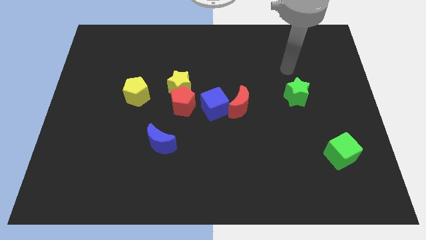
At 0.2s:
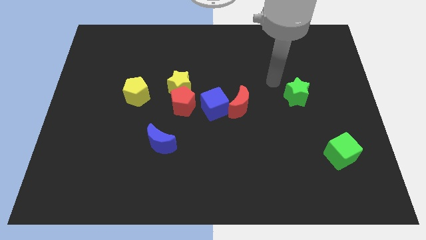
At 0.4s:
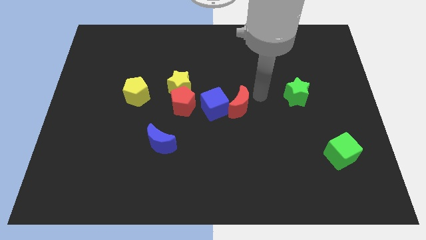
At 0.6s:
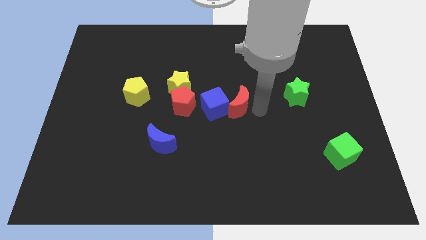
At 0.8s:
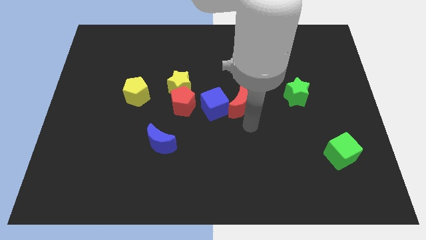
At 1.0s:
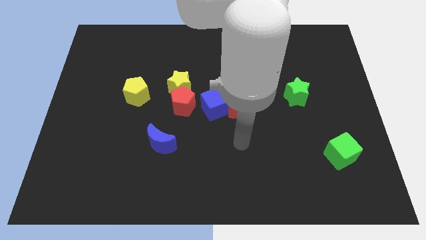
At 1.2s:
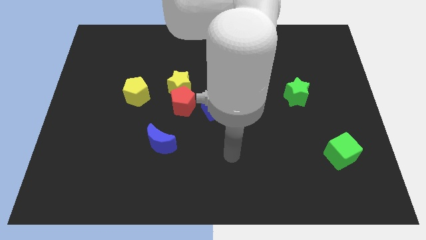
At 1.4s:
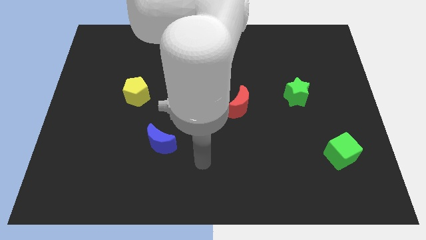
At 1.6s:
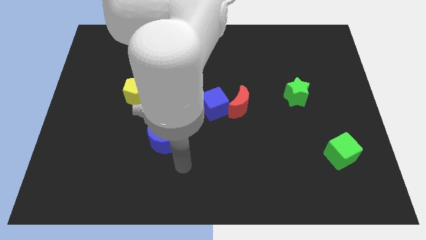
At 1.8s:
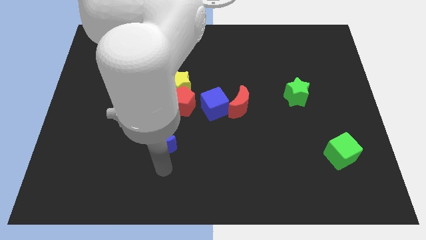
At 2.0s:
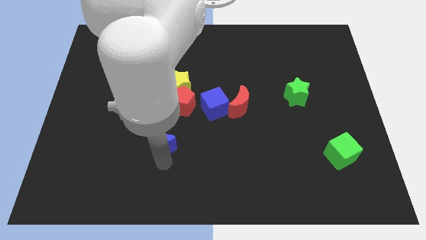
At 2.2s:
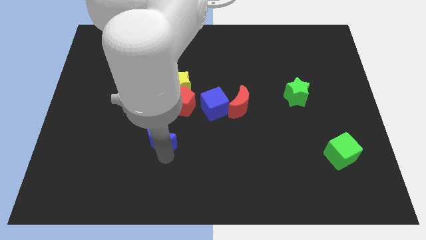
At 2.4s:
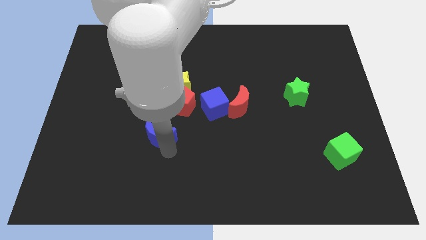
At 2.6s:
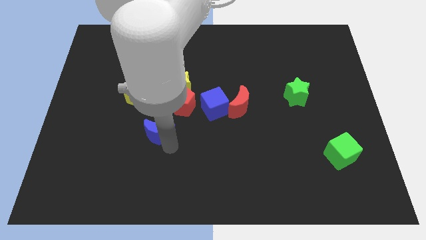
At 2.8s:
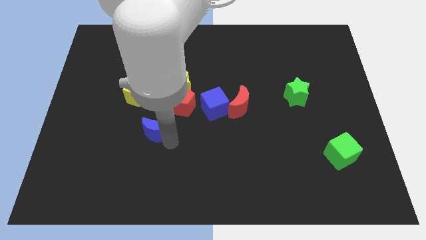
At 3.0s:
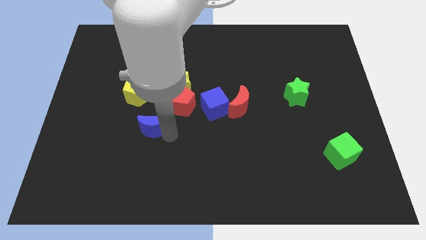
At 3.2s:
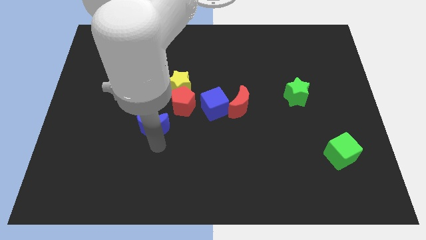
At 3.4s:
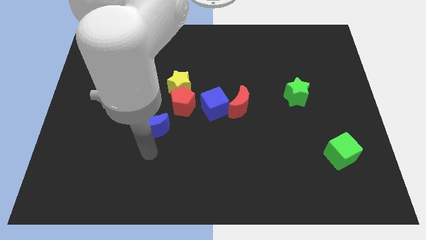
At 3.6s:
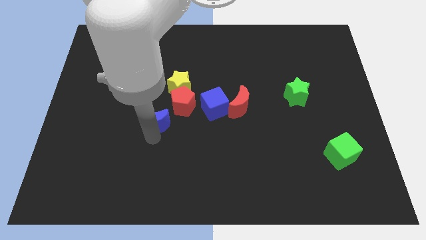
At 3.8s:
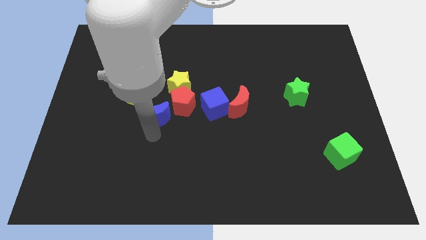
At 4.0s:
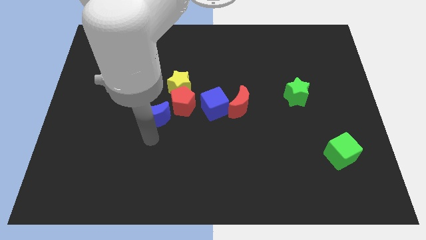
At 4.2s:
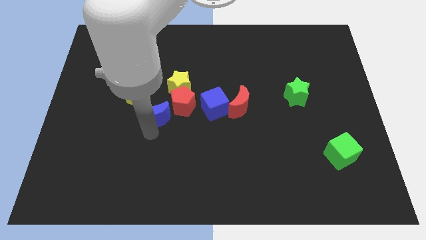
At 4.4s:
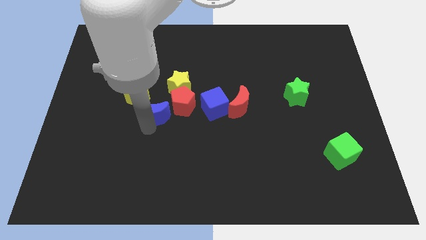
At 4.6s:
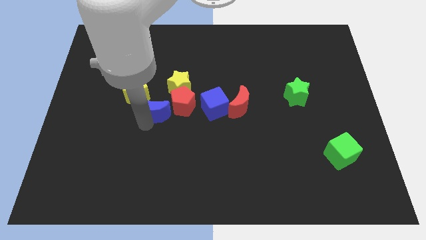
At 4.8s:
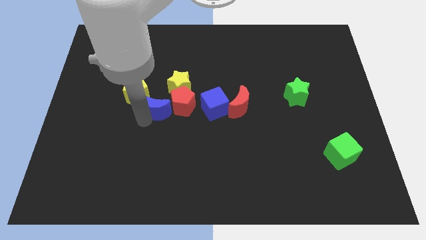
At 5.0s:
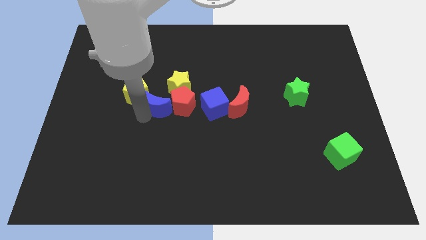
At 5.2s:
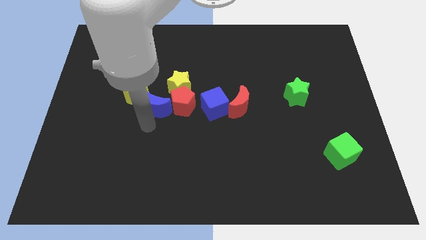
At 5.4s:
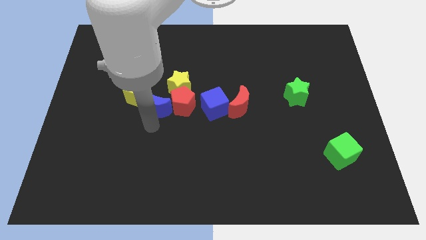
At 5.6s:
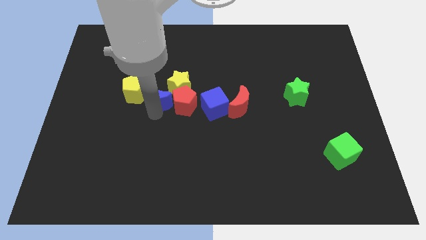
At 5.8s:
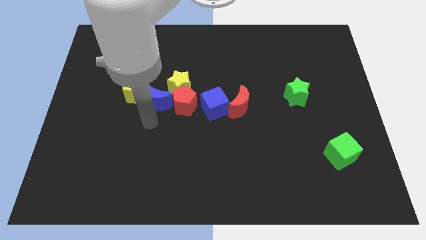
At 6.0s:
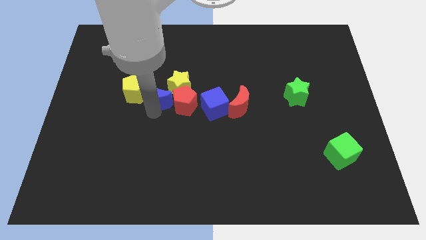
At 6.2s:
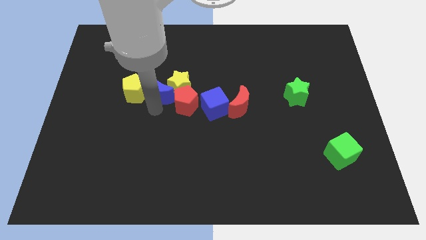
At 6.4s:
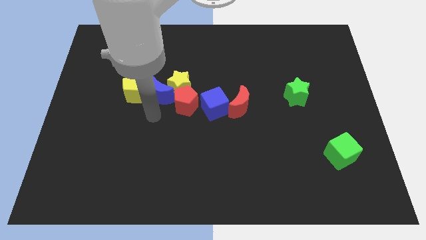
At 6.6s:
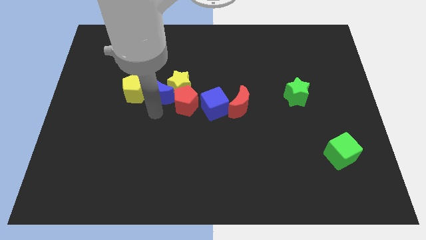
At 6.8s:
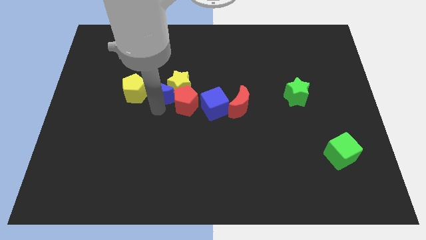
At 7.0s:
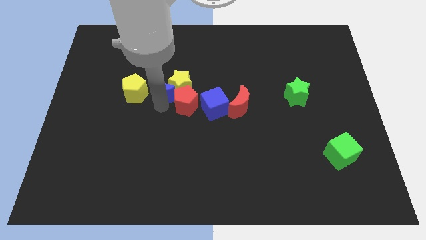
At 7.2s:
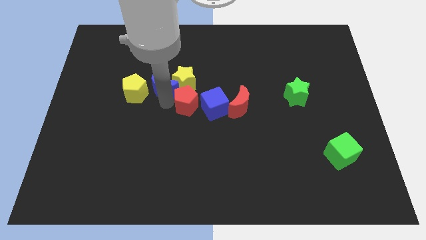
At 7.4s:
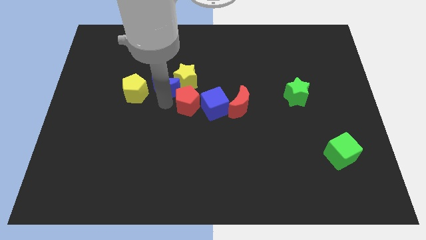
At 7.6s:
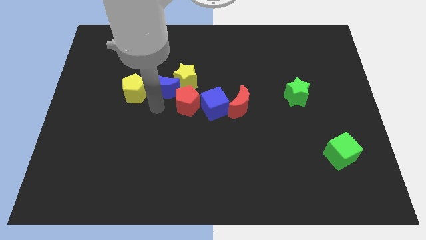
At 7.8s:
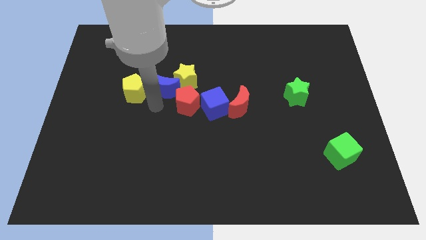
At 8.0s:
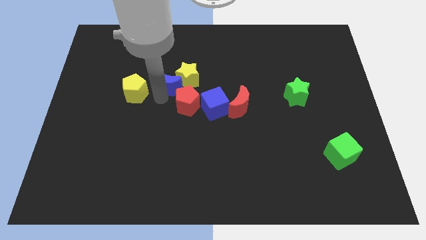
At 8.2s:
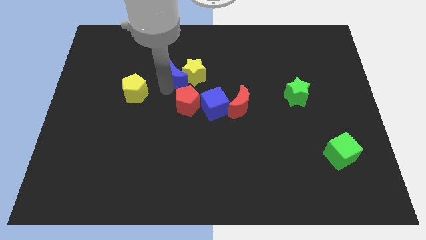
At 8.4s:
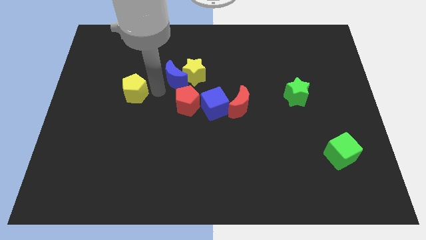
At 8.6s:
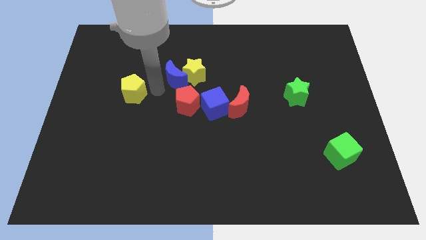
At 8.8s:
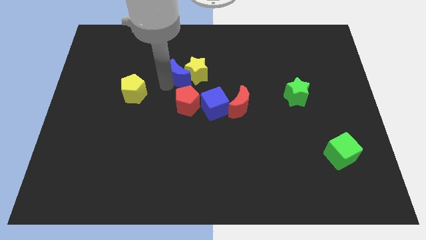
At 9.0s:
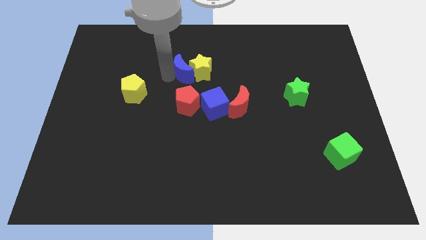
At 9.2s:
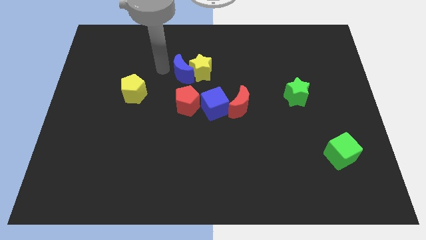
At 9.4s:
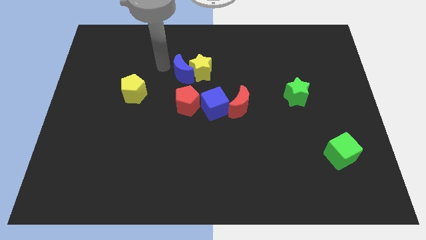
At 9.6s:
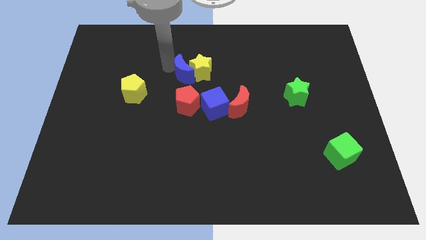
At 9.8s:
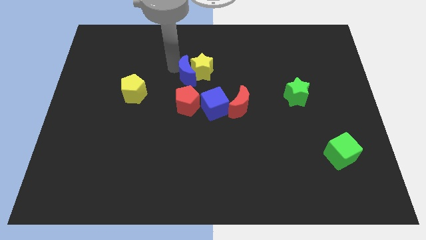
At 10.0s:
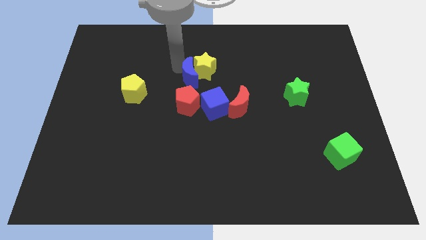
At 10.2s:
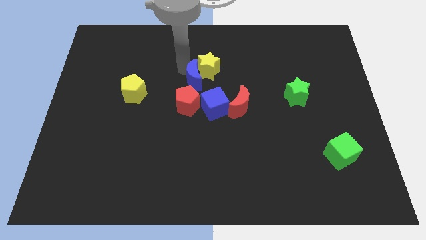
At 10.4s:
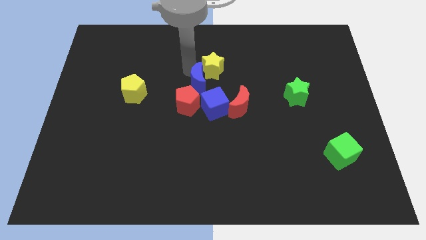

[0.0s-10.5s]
move the blue moon to the top left of the red moon

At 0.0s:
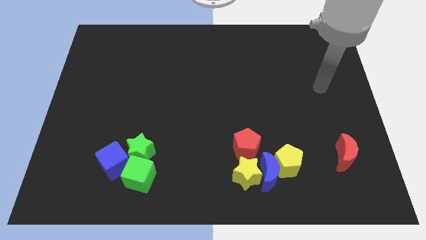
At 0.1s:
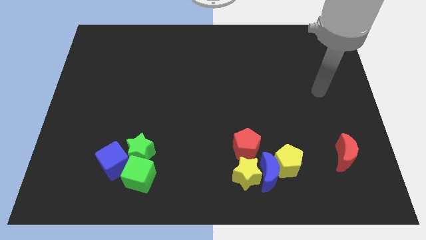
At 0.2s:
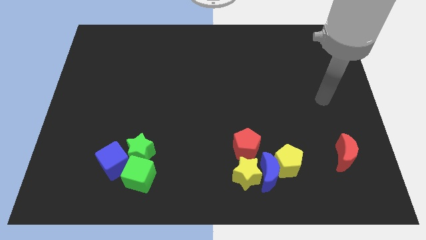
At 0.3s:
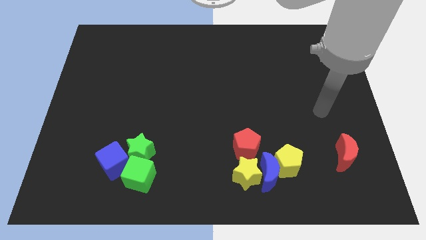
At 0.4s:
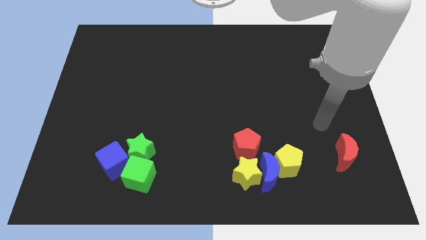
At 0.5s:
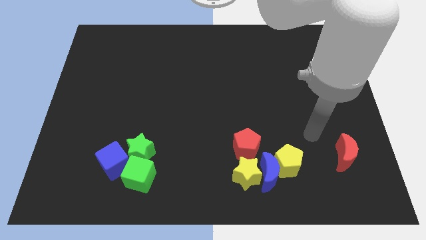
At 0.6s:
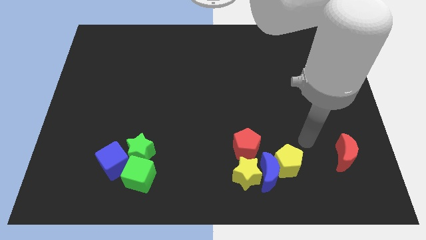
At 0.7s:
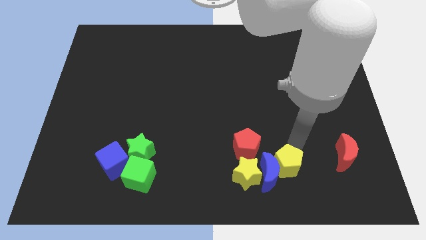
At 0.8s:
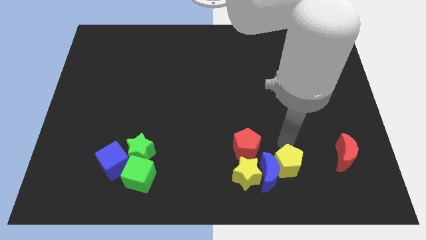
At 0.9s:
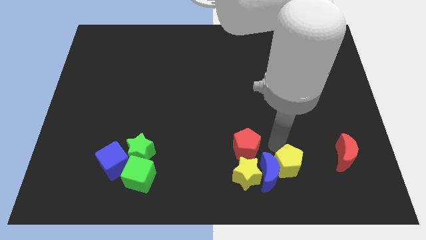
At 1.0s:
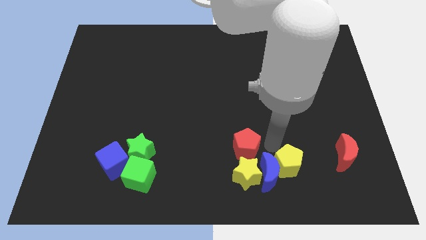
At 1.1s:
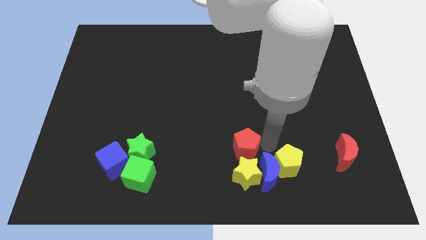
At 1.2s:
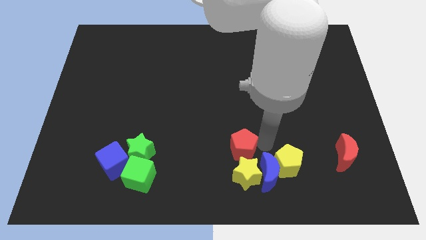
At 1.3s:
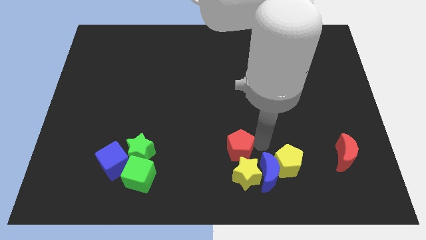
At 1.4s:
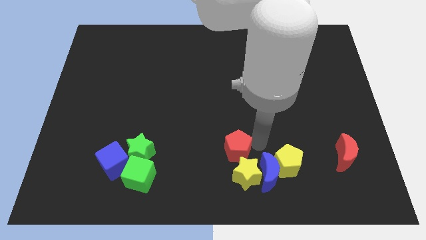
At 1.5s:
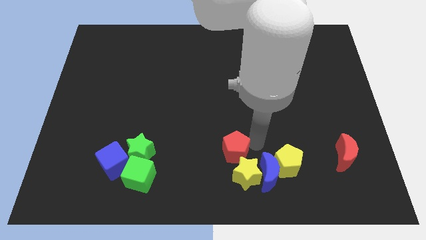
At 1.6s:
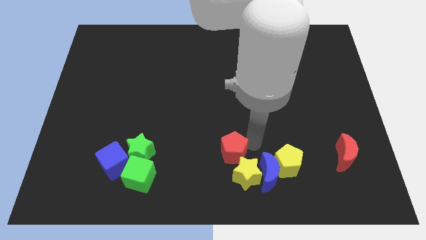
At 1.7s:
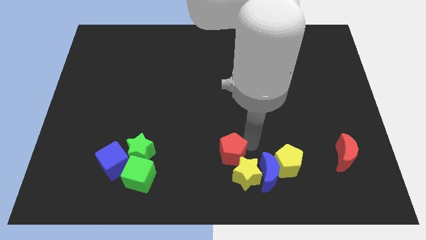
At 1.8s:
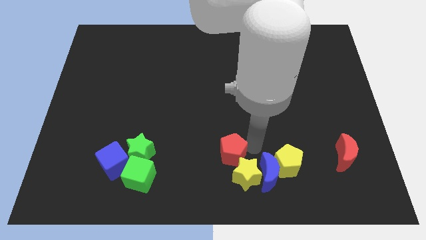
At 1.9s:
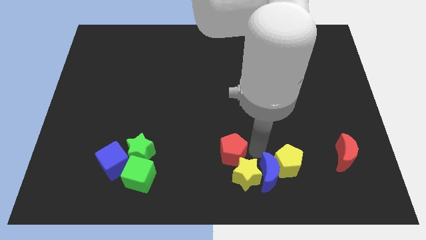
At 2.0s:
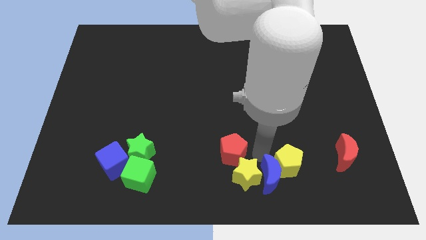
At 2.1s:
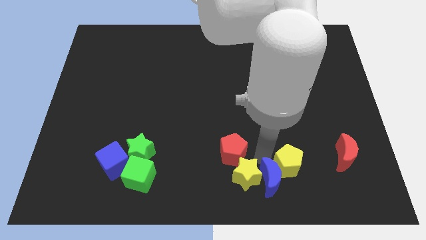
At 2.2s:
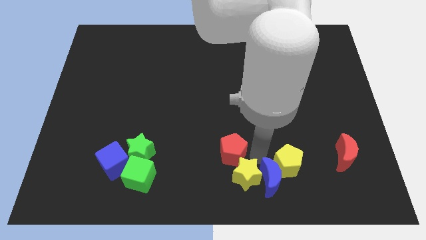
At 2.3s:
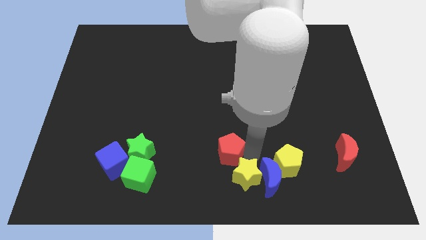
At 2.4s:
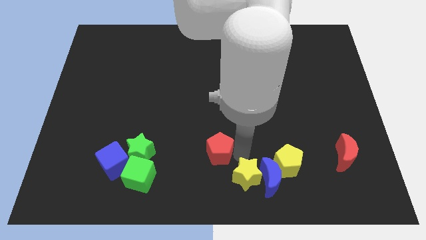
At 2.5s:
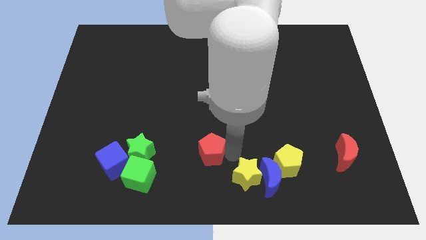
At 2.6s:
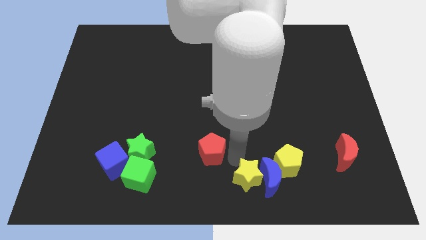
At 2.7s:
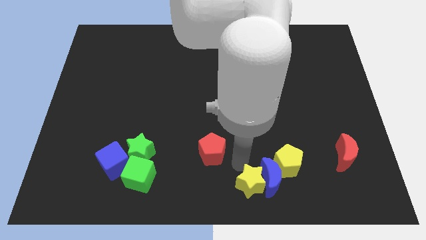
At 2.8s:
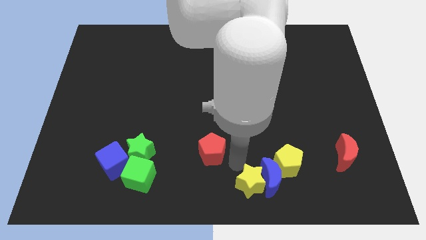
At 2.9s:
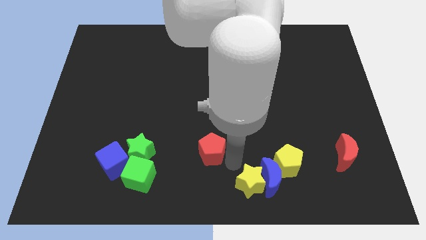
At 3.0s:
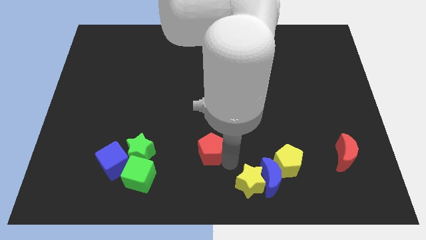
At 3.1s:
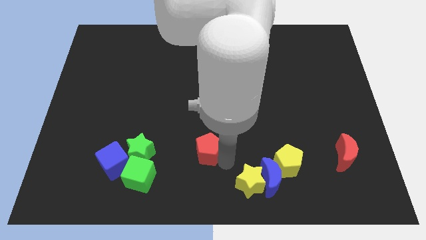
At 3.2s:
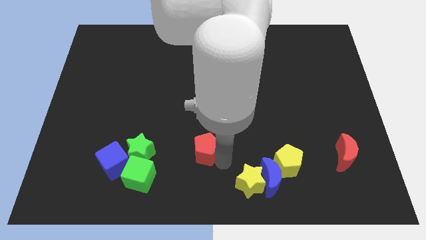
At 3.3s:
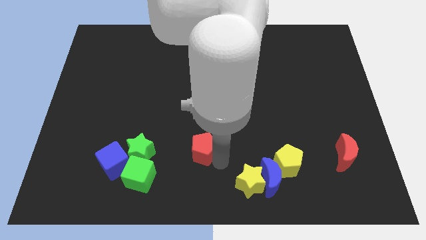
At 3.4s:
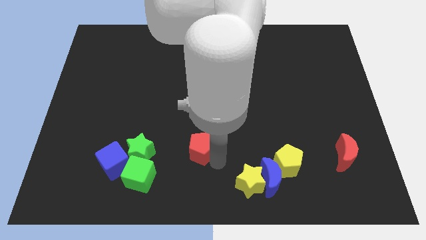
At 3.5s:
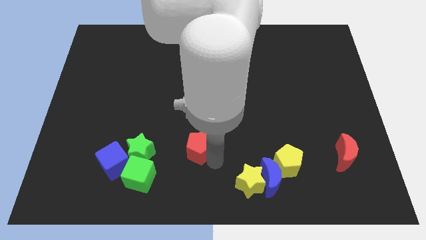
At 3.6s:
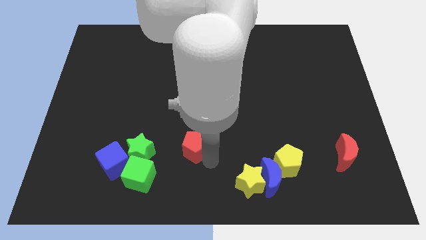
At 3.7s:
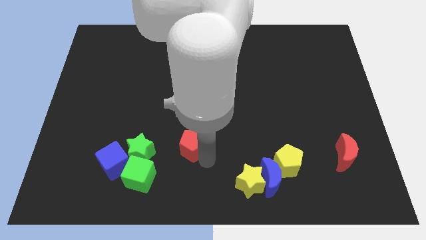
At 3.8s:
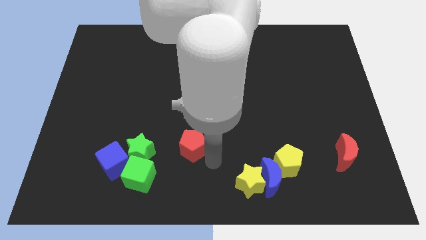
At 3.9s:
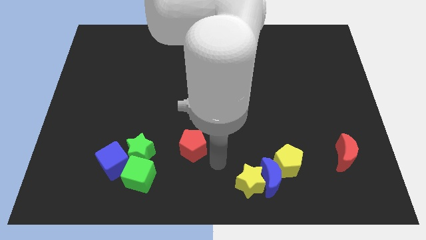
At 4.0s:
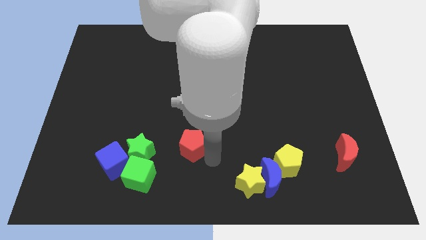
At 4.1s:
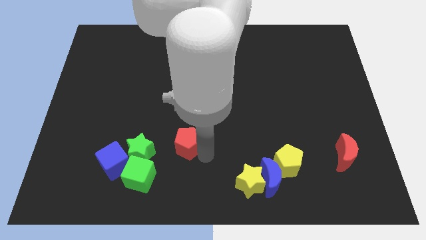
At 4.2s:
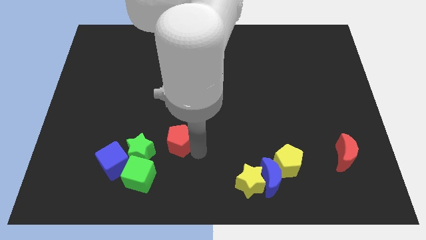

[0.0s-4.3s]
push the red pentagon to the top right of the green star
